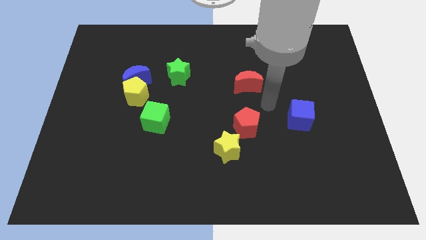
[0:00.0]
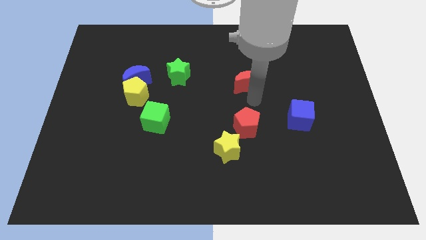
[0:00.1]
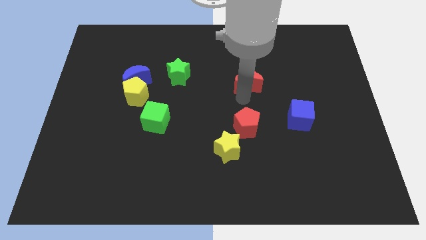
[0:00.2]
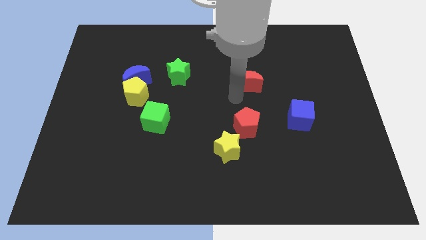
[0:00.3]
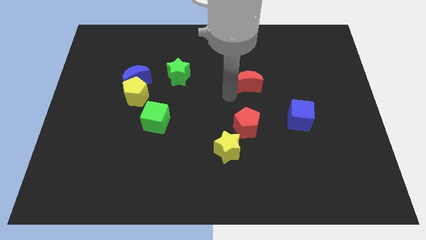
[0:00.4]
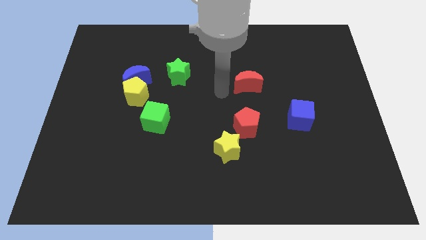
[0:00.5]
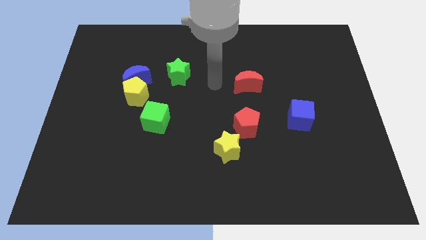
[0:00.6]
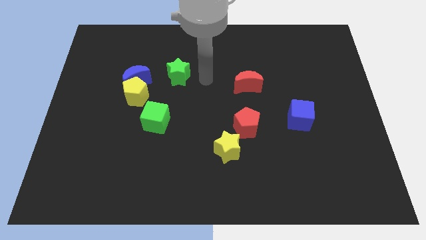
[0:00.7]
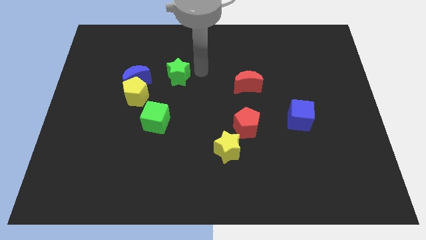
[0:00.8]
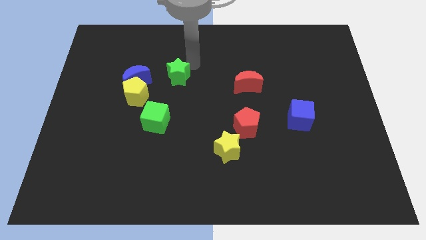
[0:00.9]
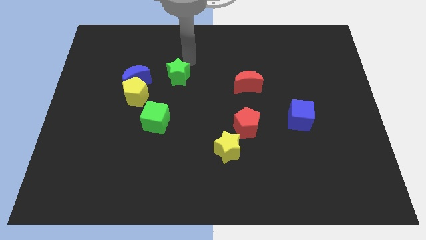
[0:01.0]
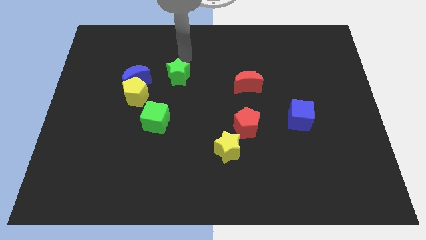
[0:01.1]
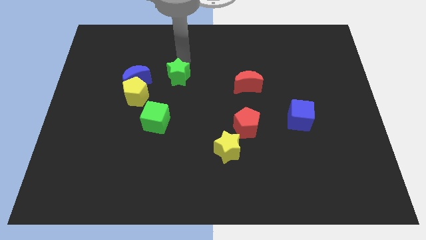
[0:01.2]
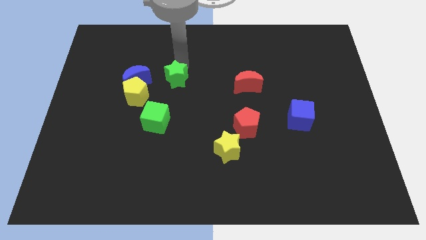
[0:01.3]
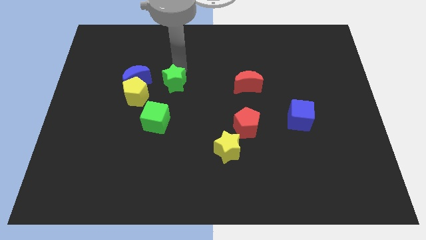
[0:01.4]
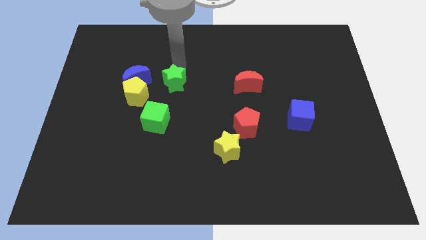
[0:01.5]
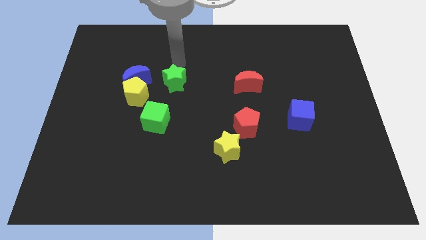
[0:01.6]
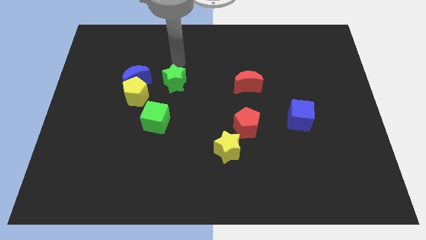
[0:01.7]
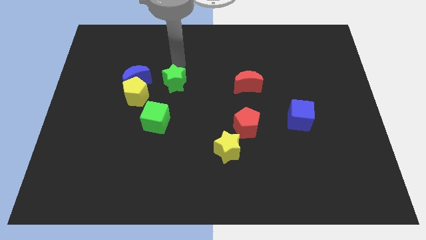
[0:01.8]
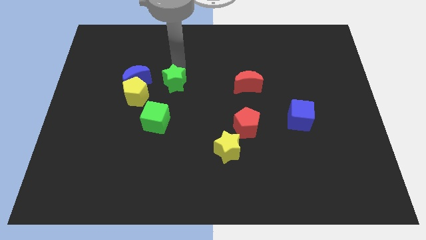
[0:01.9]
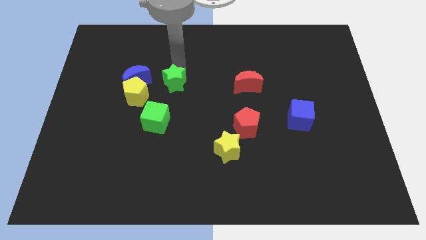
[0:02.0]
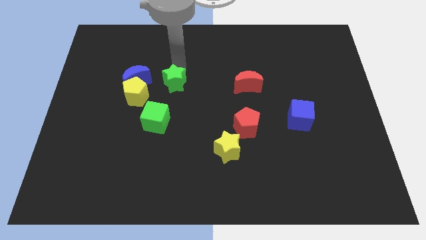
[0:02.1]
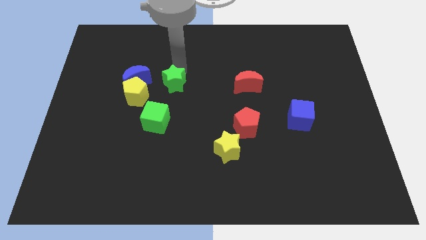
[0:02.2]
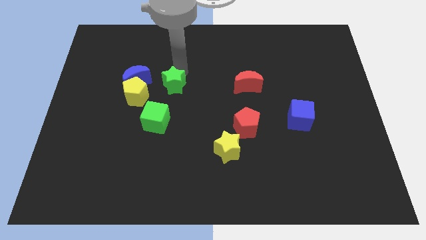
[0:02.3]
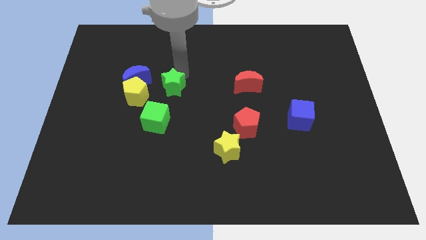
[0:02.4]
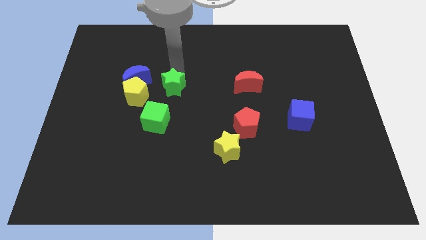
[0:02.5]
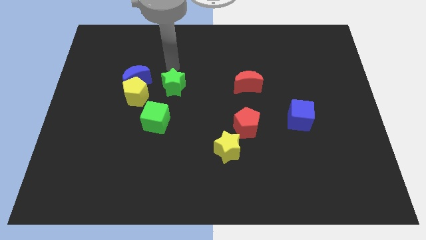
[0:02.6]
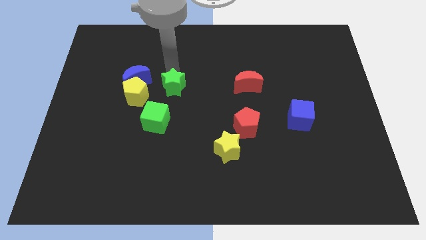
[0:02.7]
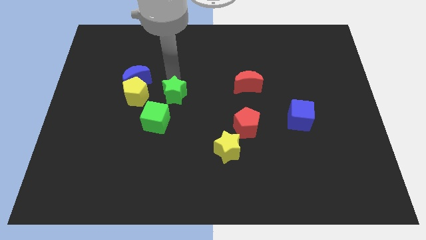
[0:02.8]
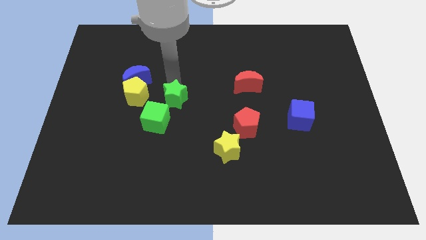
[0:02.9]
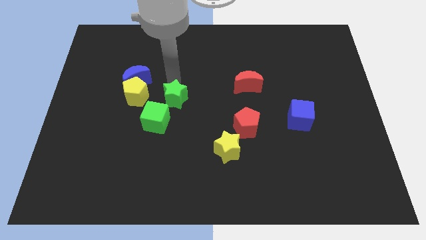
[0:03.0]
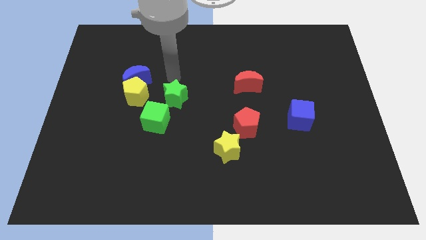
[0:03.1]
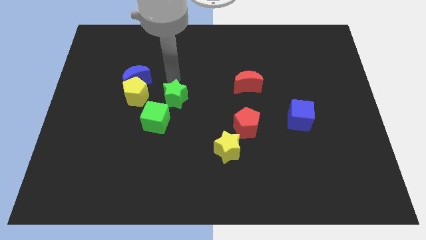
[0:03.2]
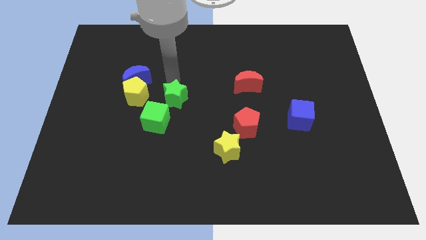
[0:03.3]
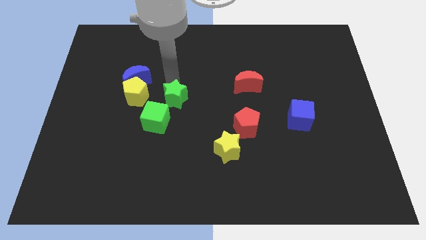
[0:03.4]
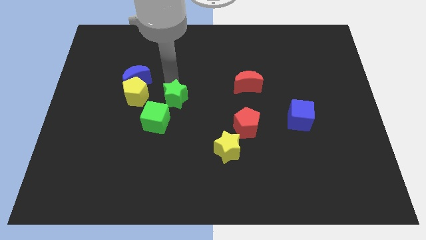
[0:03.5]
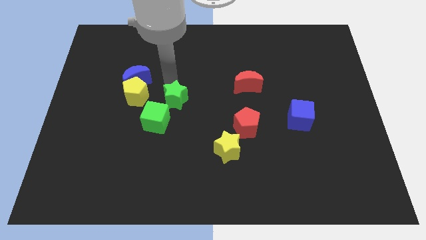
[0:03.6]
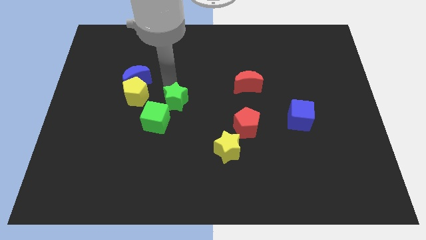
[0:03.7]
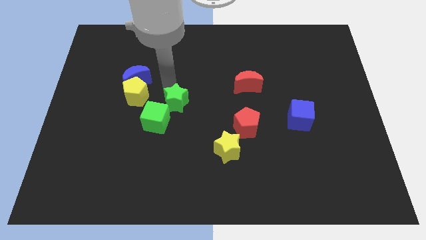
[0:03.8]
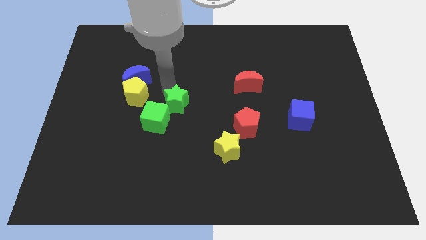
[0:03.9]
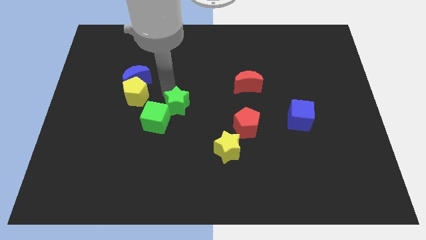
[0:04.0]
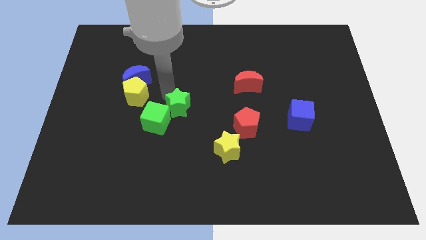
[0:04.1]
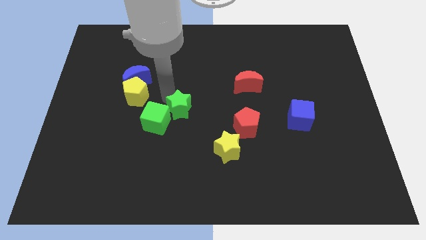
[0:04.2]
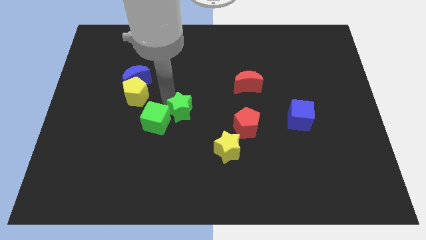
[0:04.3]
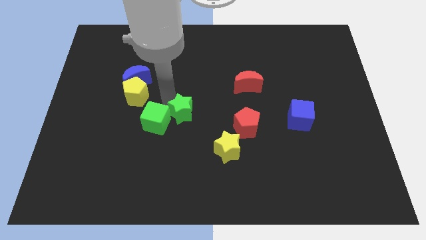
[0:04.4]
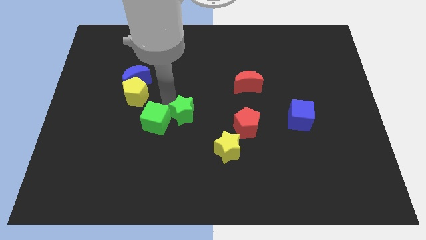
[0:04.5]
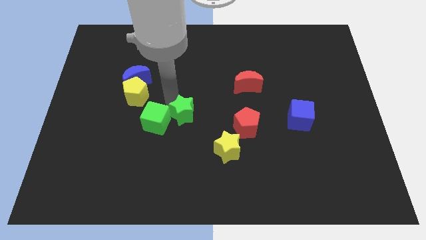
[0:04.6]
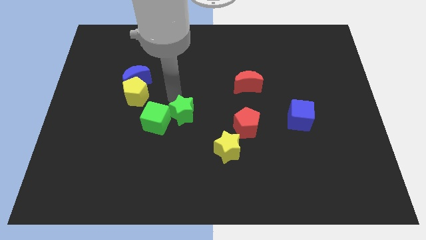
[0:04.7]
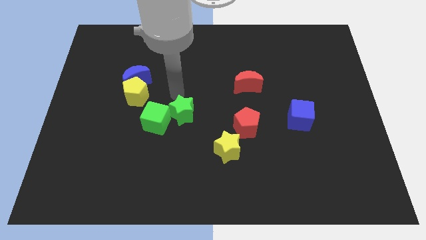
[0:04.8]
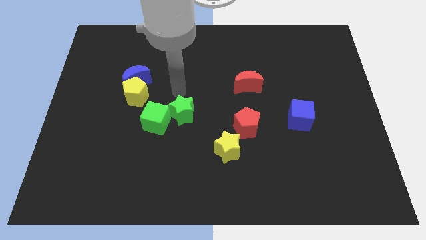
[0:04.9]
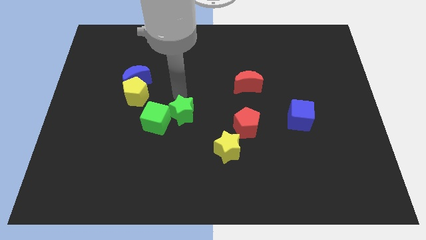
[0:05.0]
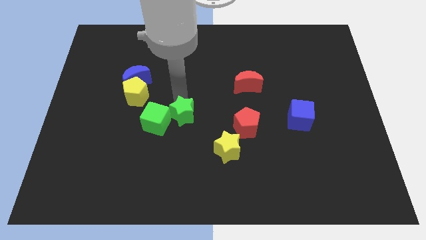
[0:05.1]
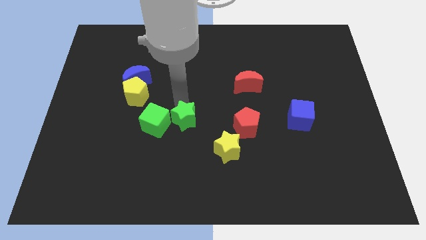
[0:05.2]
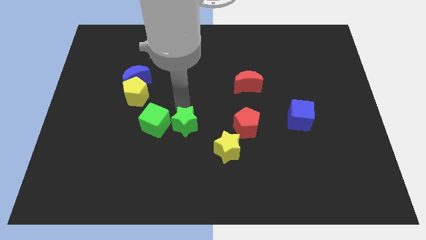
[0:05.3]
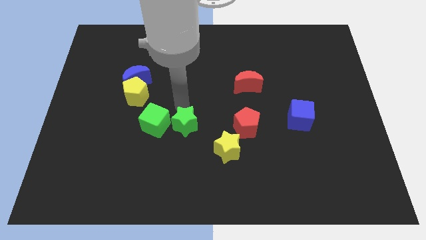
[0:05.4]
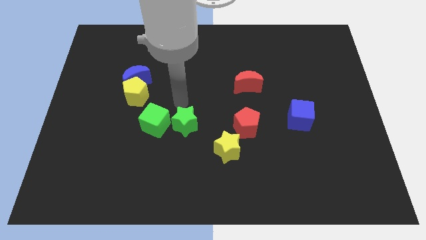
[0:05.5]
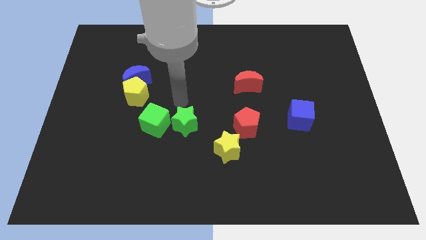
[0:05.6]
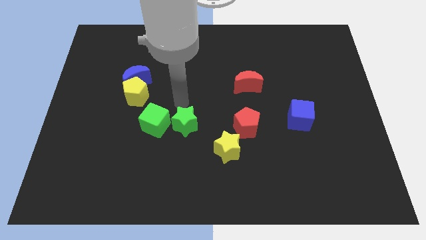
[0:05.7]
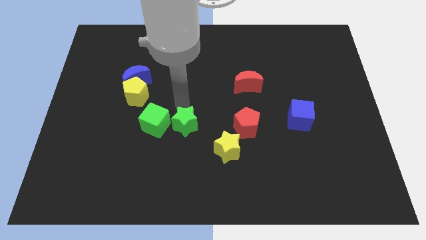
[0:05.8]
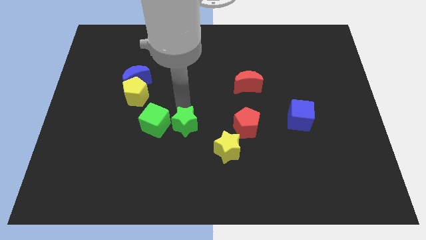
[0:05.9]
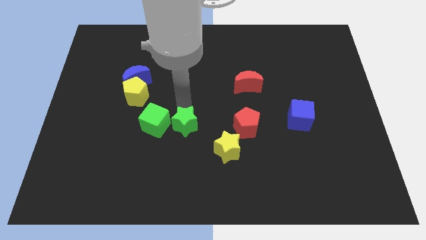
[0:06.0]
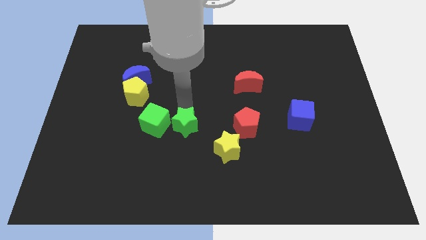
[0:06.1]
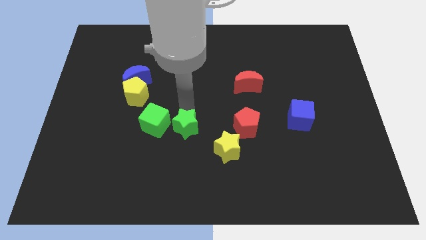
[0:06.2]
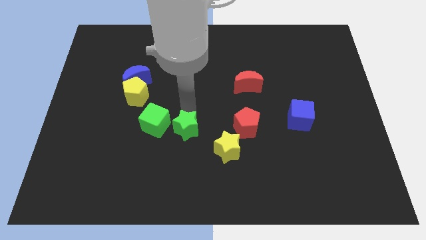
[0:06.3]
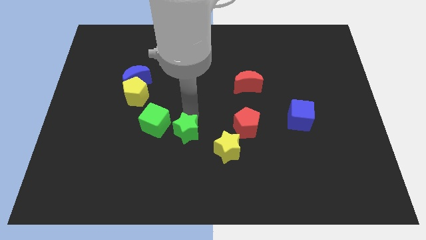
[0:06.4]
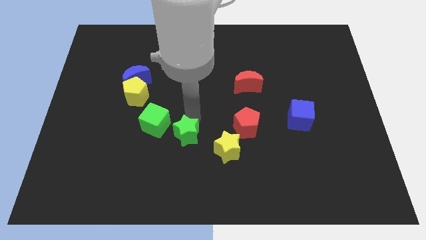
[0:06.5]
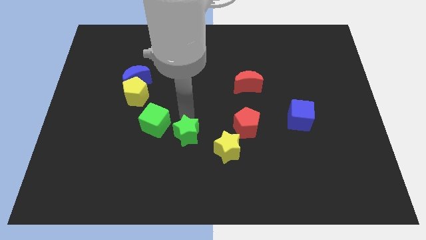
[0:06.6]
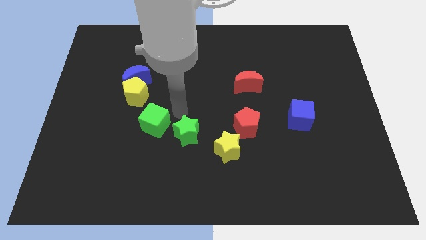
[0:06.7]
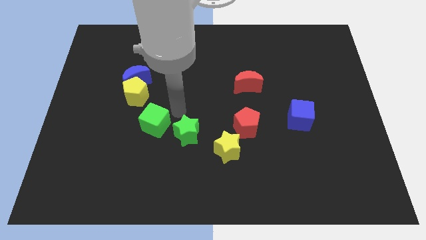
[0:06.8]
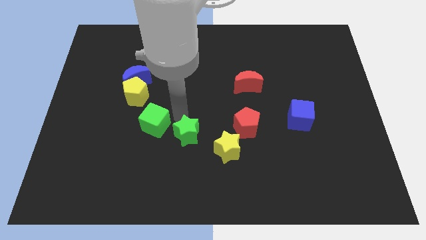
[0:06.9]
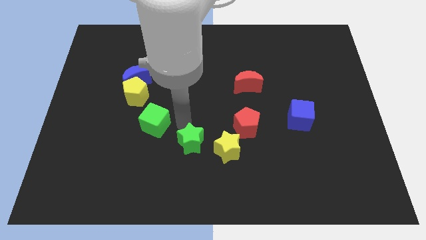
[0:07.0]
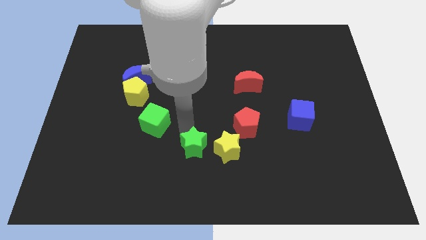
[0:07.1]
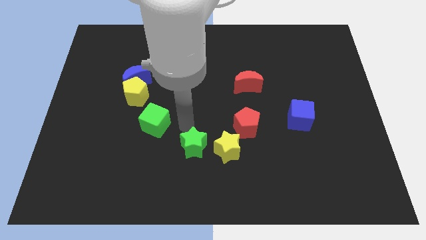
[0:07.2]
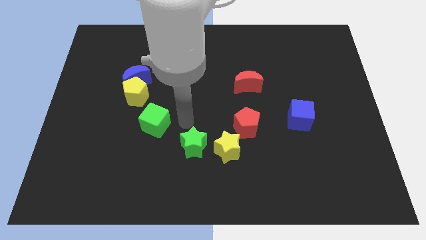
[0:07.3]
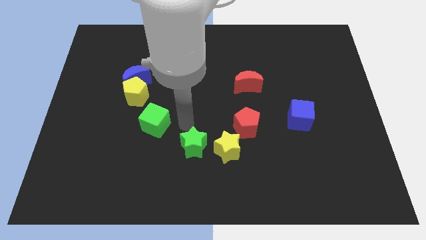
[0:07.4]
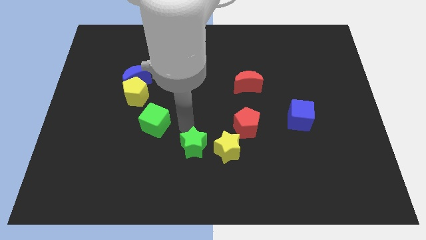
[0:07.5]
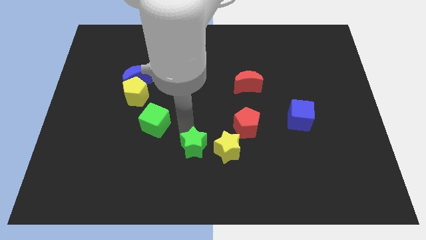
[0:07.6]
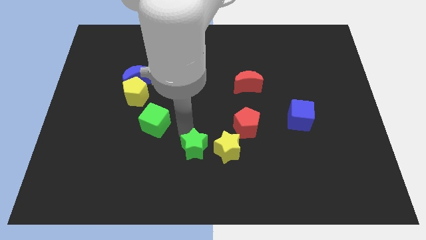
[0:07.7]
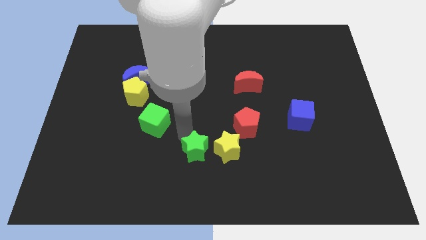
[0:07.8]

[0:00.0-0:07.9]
put the green star diagonally down and to the left of the yellow star
